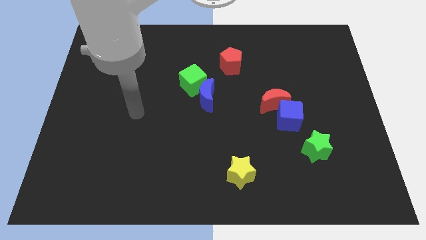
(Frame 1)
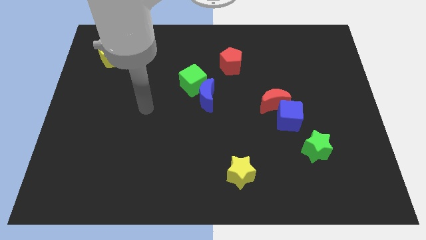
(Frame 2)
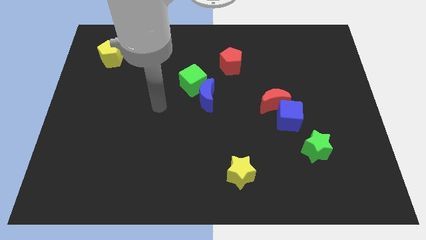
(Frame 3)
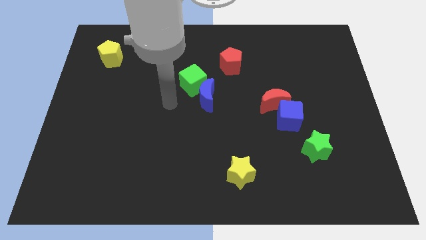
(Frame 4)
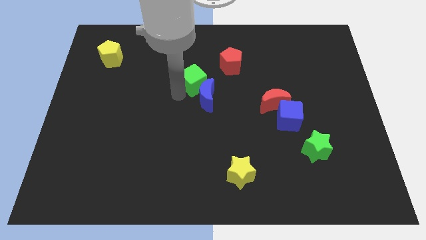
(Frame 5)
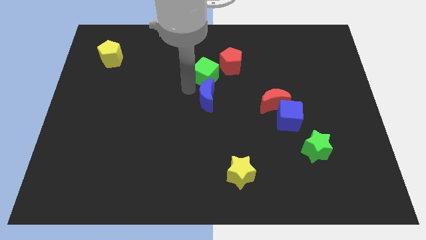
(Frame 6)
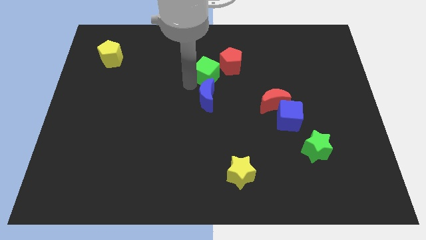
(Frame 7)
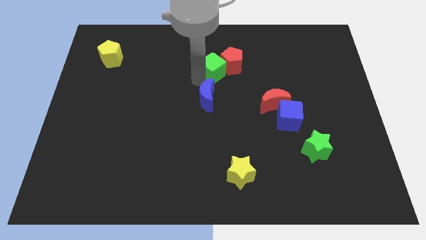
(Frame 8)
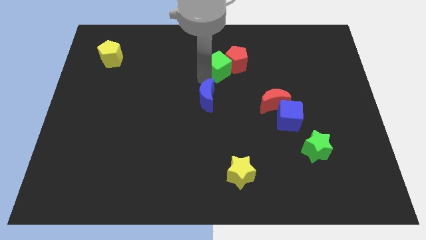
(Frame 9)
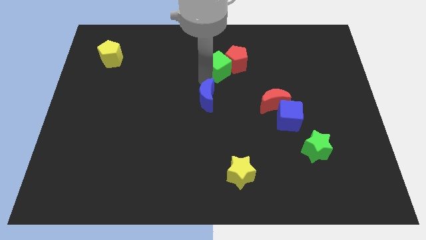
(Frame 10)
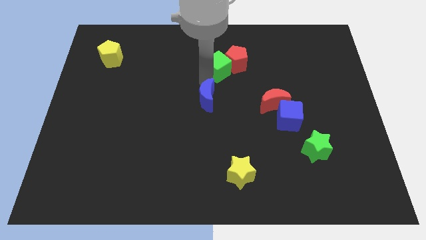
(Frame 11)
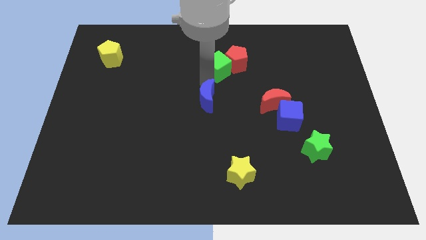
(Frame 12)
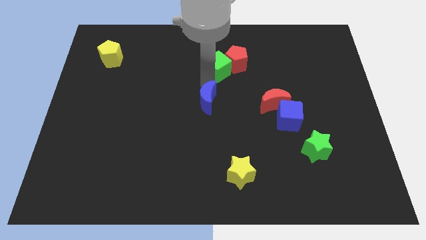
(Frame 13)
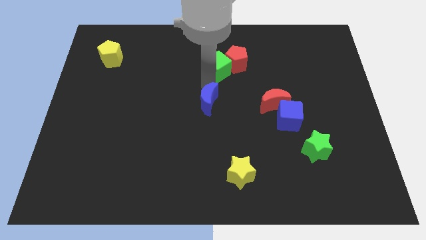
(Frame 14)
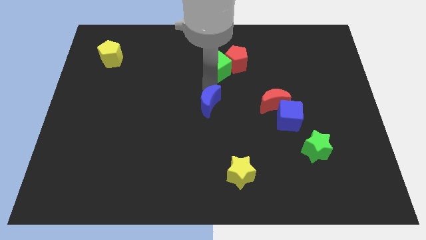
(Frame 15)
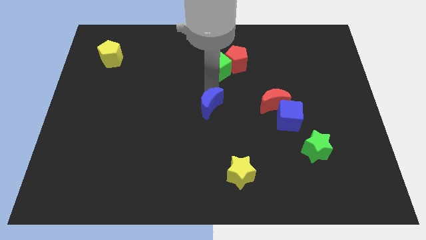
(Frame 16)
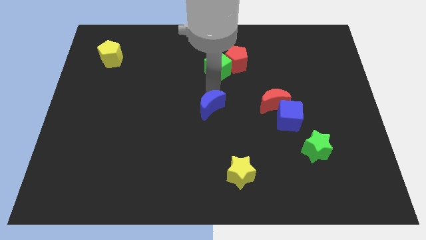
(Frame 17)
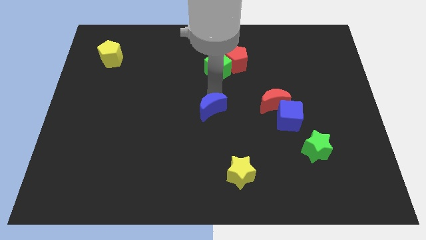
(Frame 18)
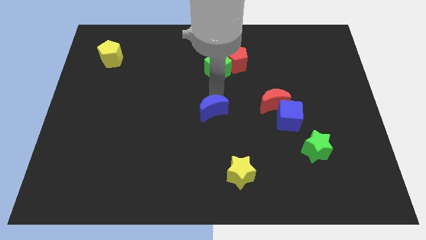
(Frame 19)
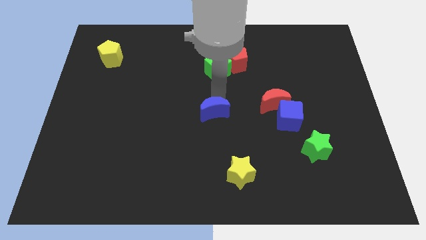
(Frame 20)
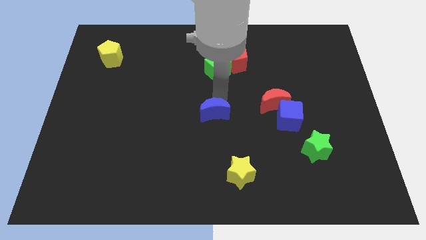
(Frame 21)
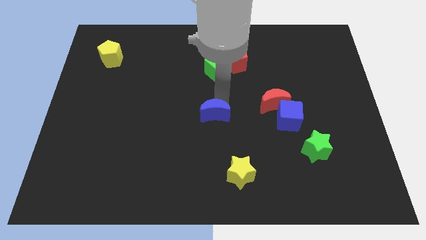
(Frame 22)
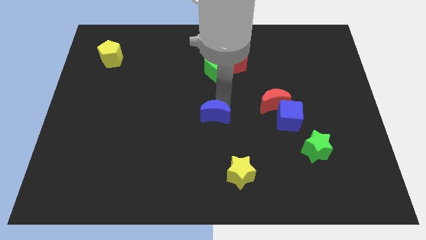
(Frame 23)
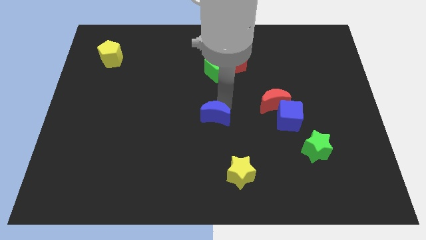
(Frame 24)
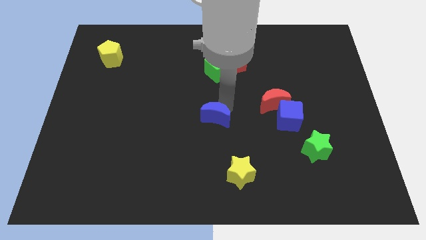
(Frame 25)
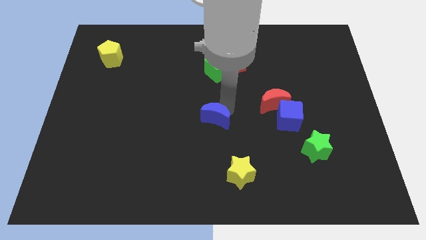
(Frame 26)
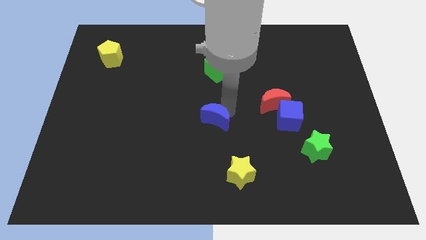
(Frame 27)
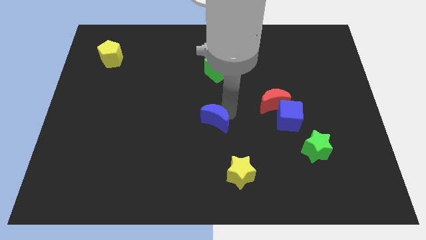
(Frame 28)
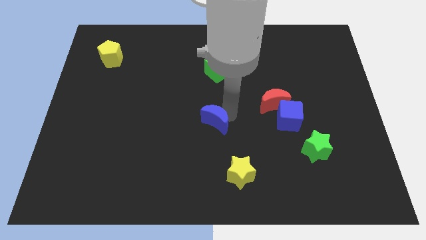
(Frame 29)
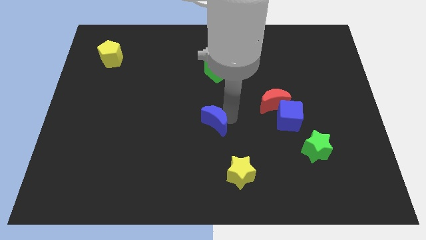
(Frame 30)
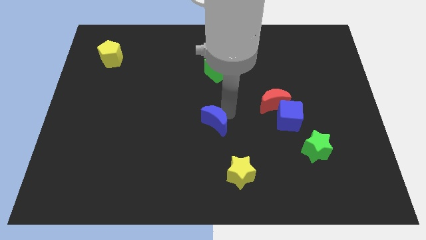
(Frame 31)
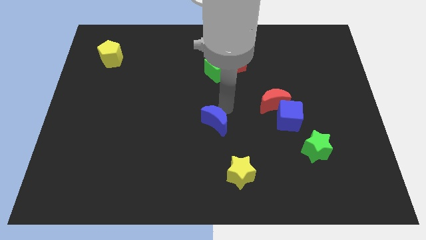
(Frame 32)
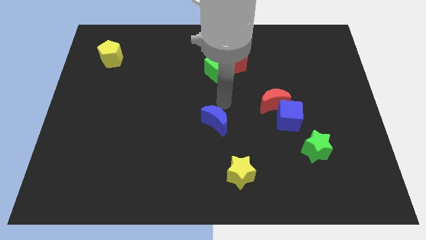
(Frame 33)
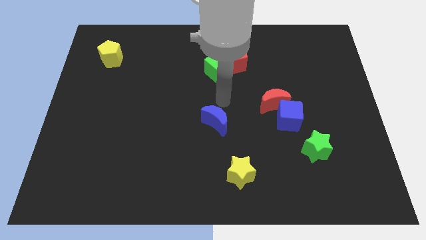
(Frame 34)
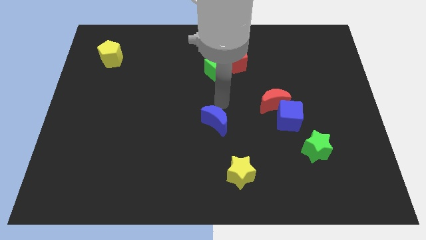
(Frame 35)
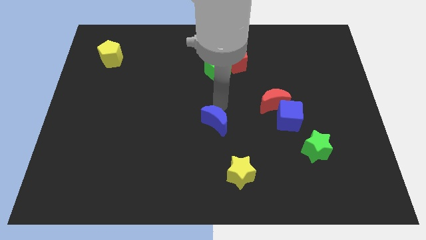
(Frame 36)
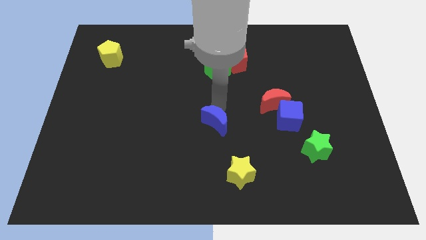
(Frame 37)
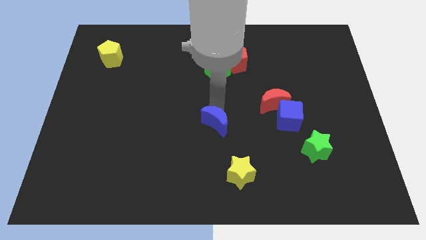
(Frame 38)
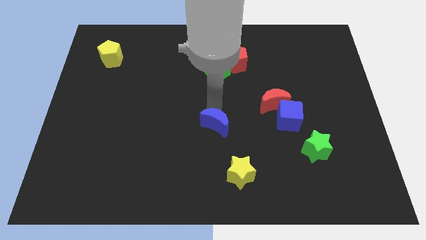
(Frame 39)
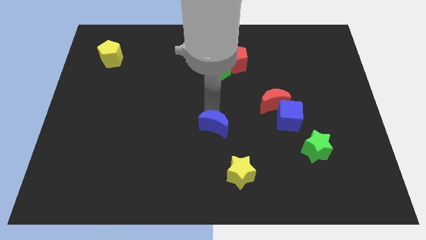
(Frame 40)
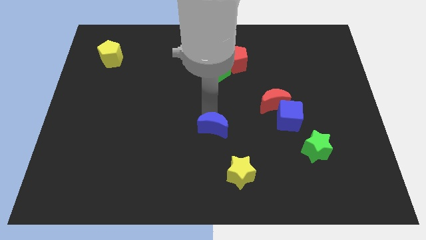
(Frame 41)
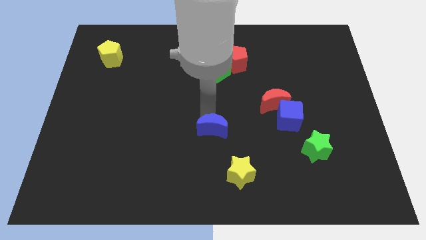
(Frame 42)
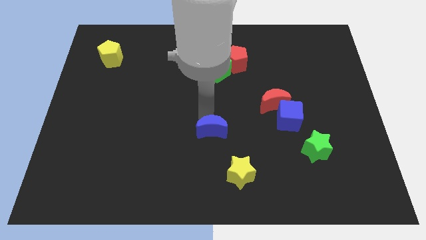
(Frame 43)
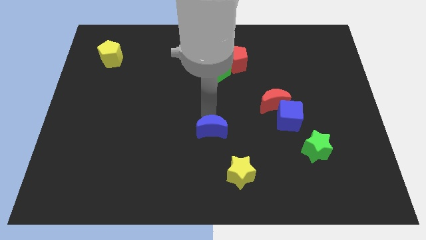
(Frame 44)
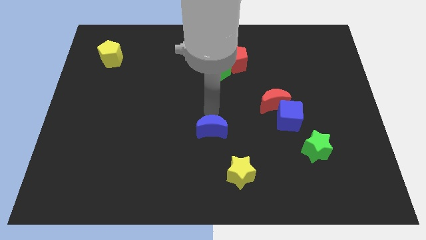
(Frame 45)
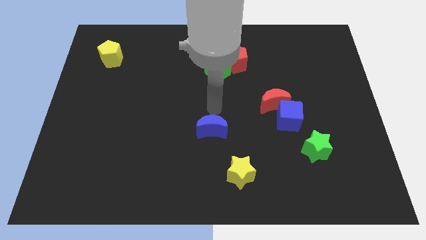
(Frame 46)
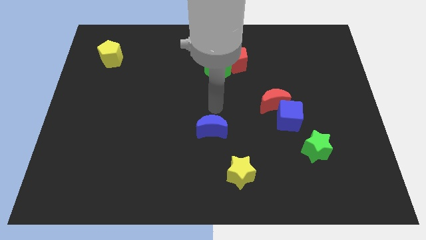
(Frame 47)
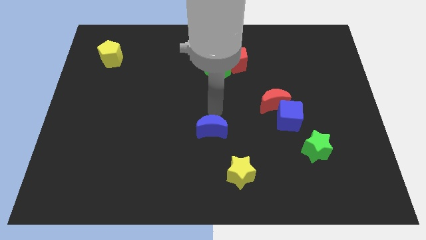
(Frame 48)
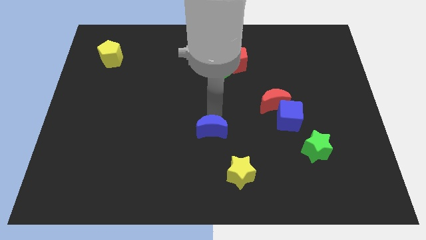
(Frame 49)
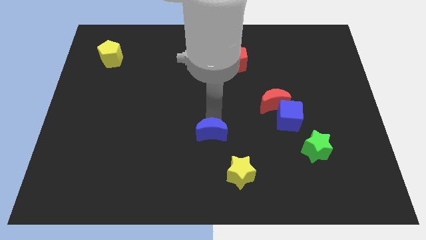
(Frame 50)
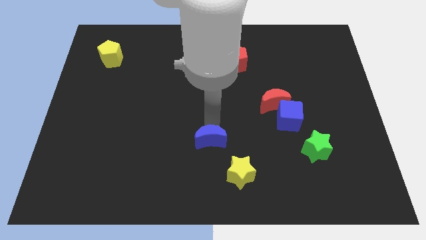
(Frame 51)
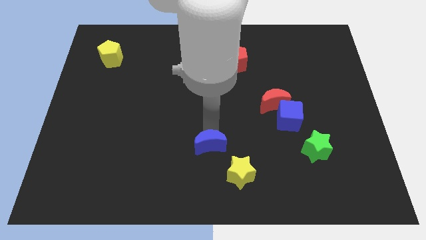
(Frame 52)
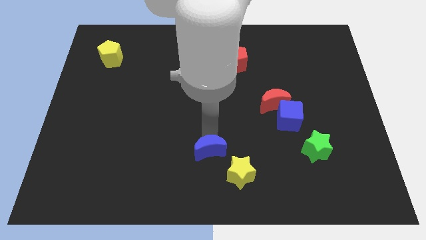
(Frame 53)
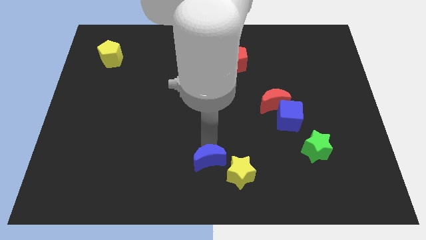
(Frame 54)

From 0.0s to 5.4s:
move the blue moon to the bottom

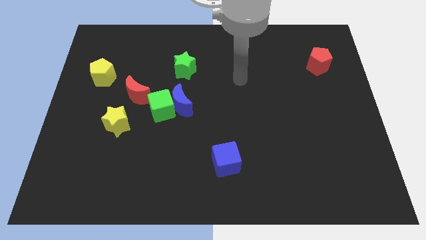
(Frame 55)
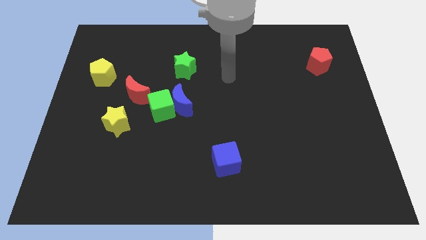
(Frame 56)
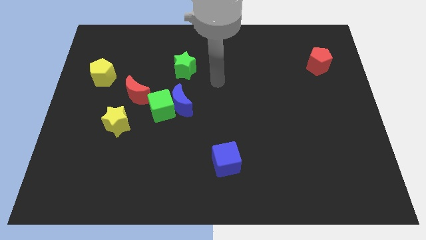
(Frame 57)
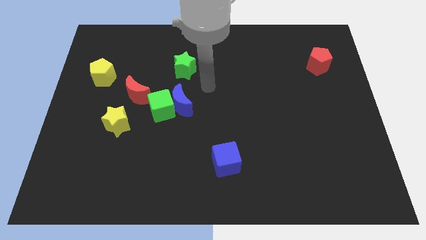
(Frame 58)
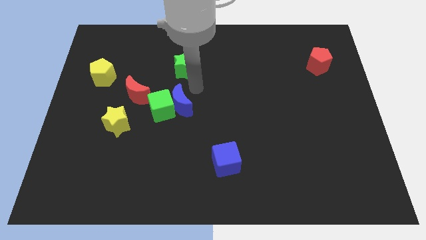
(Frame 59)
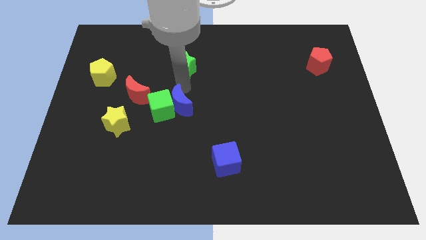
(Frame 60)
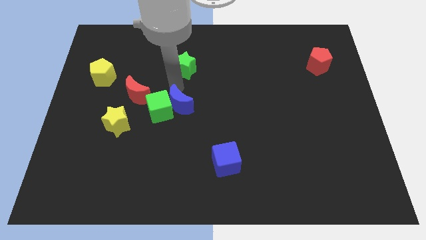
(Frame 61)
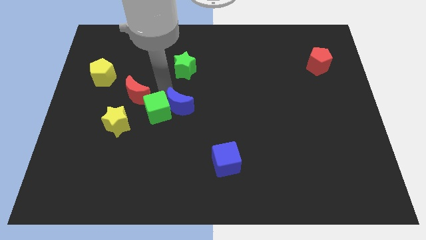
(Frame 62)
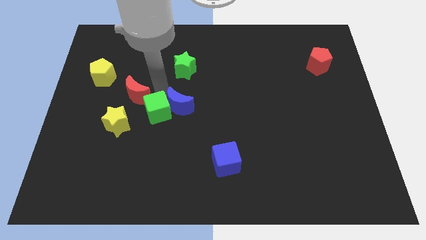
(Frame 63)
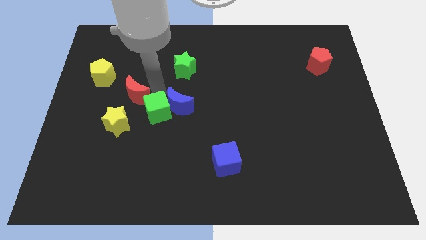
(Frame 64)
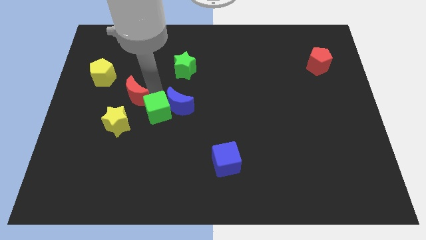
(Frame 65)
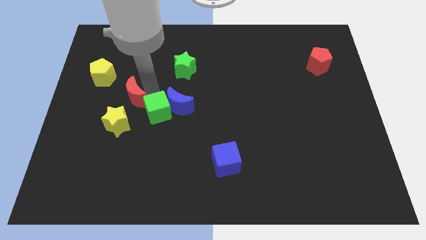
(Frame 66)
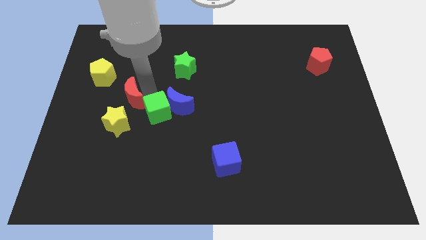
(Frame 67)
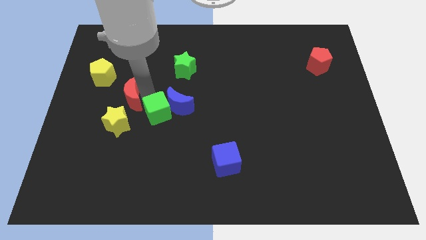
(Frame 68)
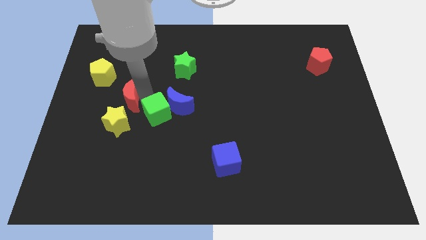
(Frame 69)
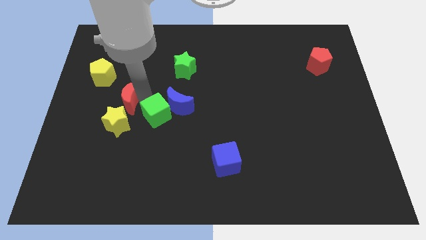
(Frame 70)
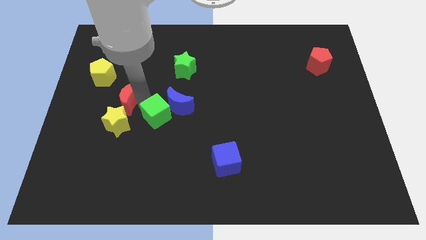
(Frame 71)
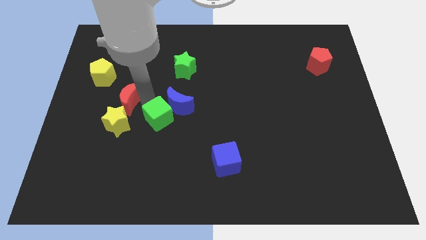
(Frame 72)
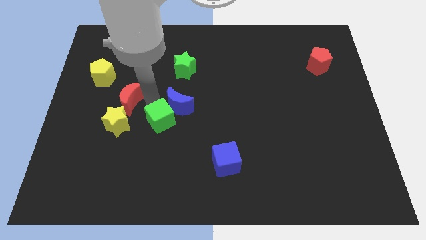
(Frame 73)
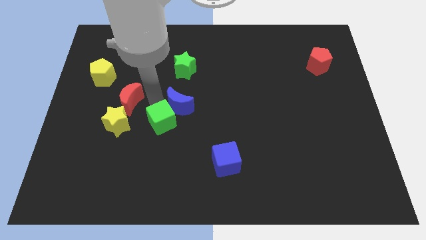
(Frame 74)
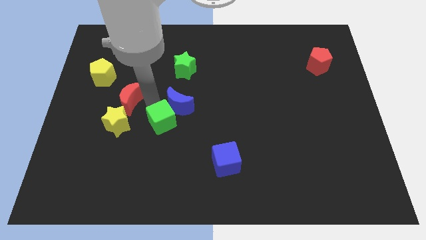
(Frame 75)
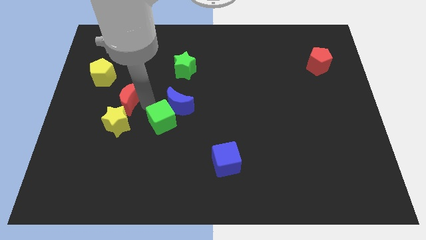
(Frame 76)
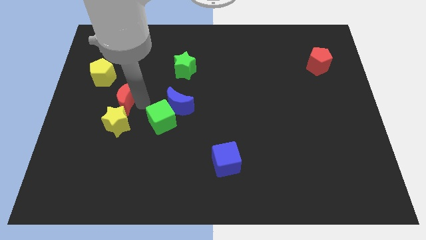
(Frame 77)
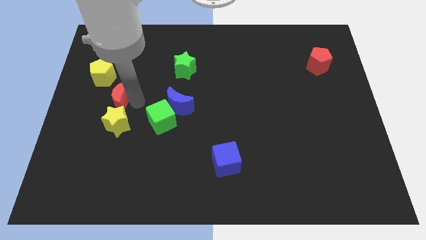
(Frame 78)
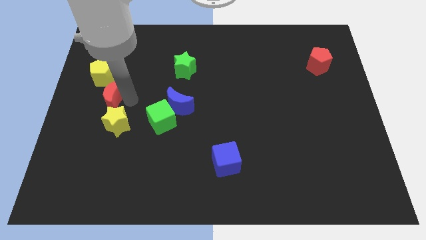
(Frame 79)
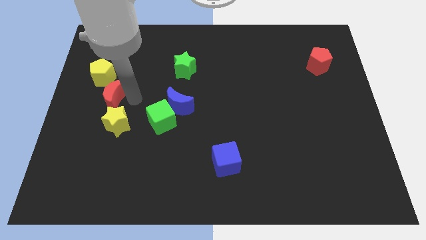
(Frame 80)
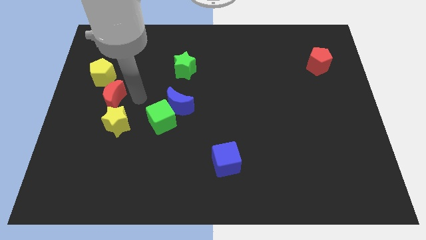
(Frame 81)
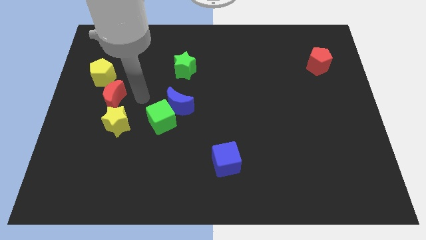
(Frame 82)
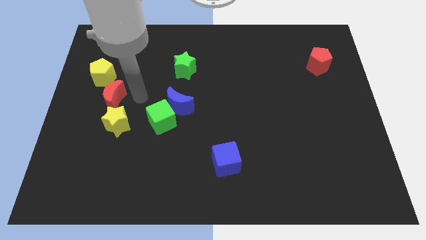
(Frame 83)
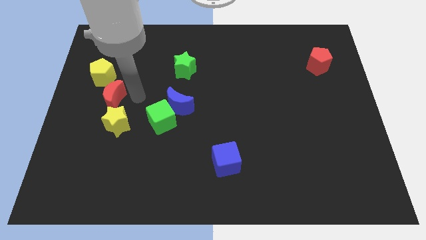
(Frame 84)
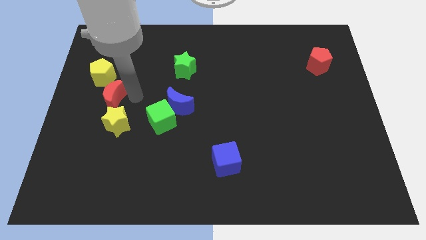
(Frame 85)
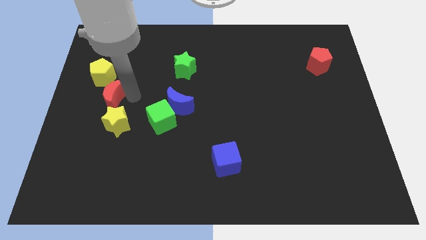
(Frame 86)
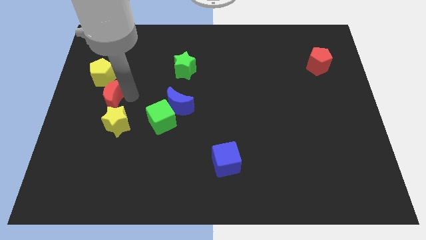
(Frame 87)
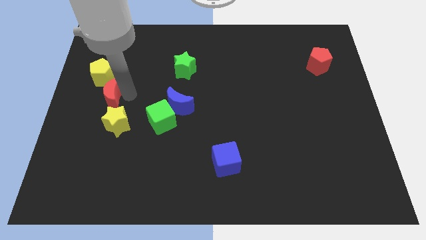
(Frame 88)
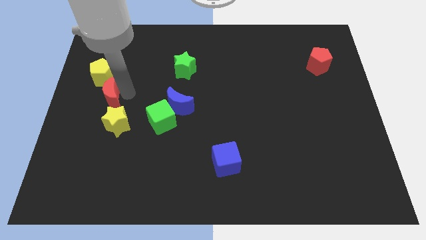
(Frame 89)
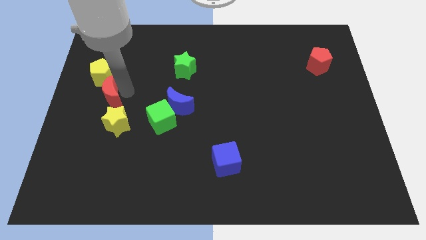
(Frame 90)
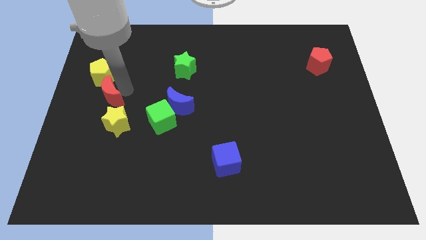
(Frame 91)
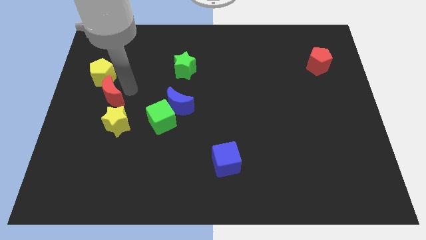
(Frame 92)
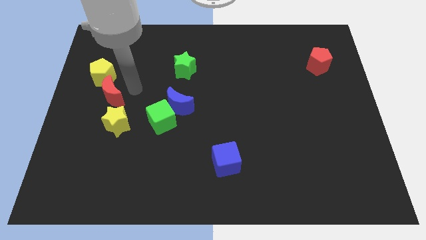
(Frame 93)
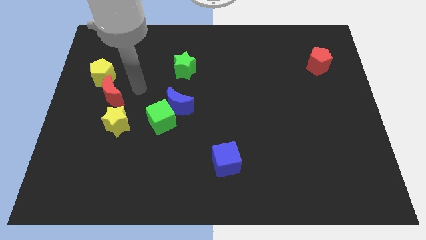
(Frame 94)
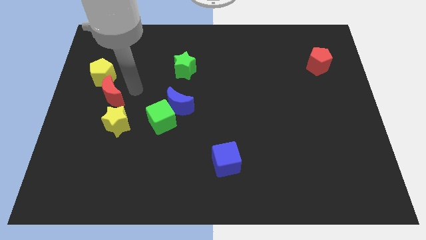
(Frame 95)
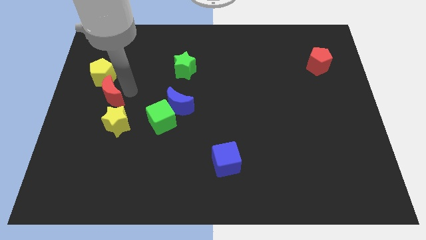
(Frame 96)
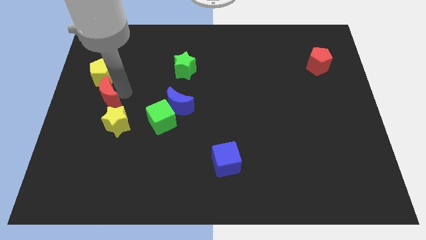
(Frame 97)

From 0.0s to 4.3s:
push the red moon to the center left
